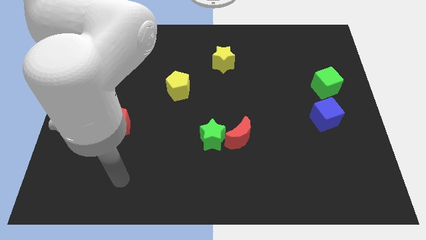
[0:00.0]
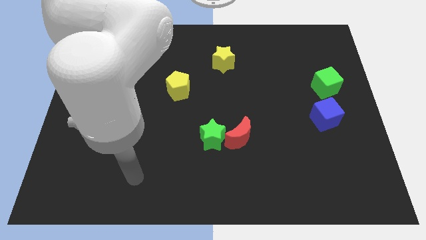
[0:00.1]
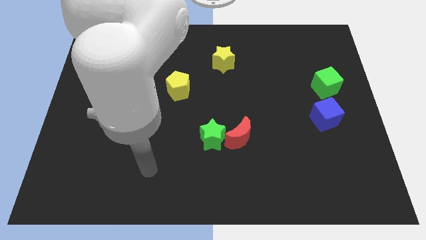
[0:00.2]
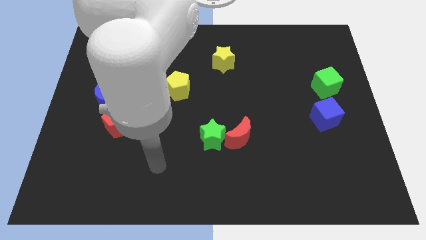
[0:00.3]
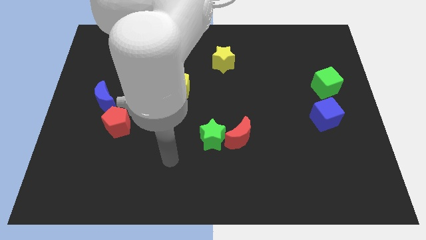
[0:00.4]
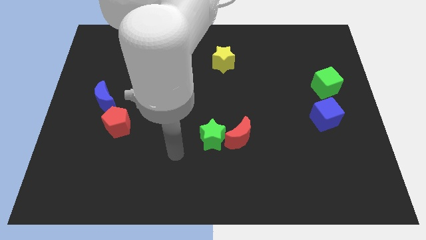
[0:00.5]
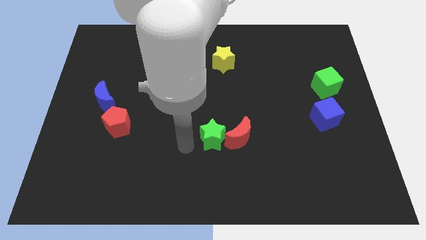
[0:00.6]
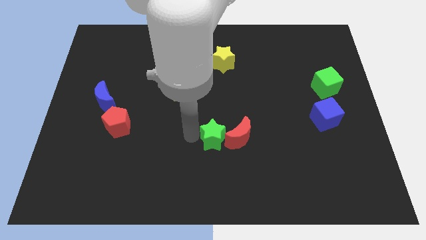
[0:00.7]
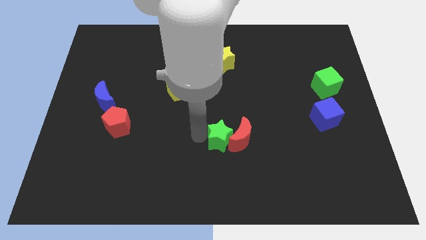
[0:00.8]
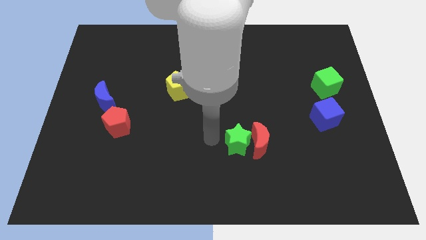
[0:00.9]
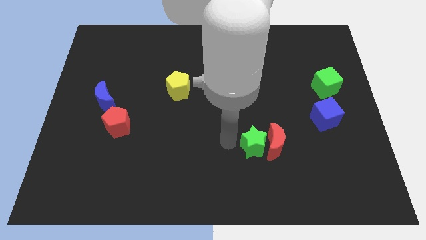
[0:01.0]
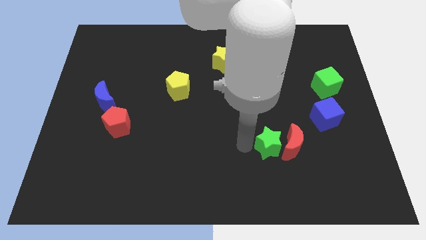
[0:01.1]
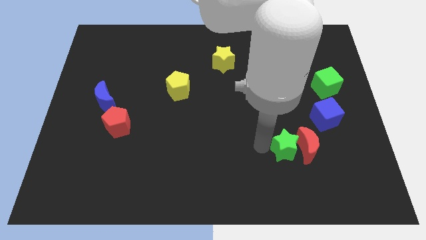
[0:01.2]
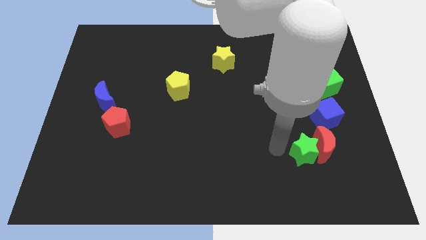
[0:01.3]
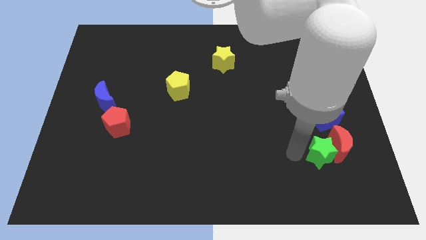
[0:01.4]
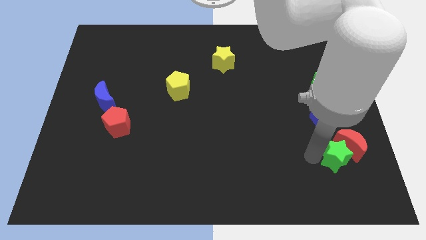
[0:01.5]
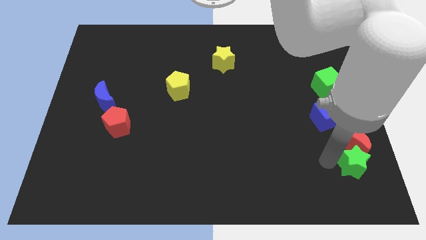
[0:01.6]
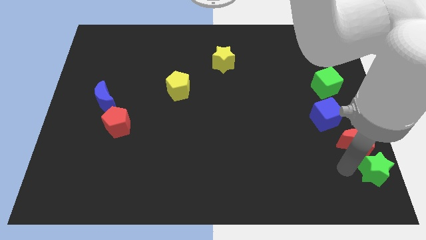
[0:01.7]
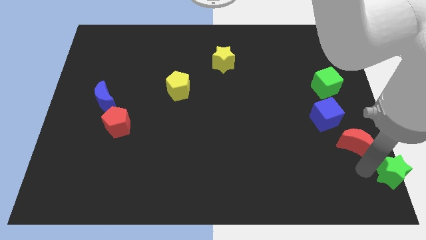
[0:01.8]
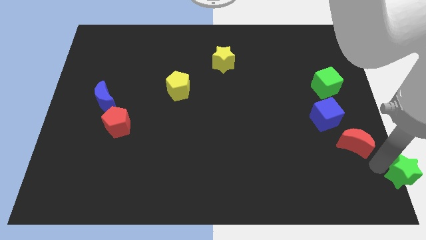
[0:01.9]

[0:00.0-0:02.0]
separate the red moon from the green star

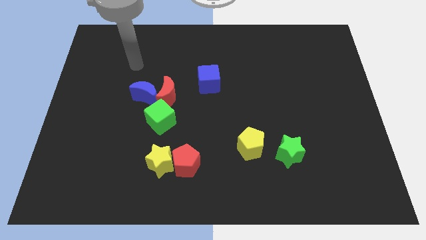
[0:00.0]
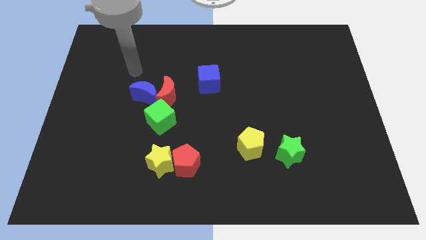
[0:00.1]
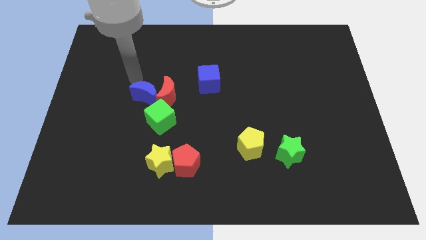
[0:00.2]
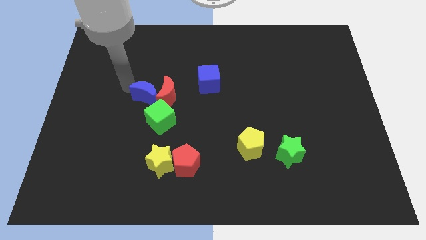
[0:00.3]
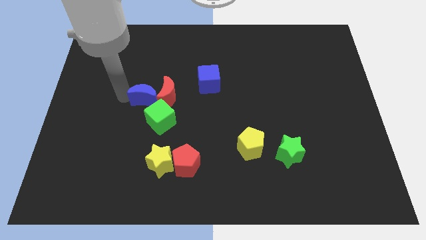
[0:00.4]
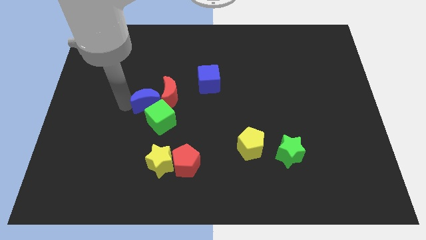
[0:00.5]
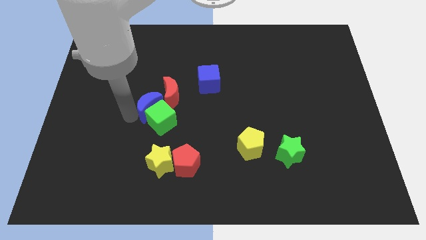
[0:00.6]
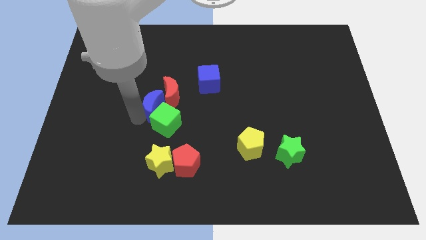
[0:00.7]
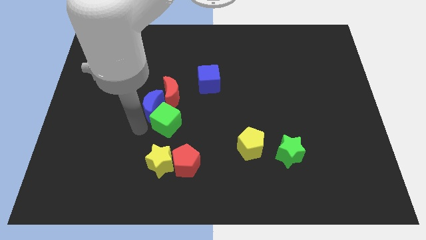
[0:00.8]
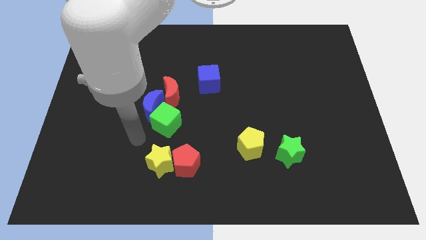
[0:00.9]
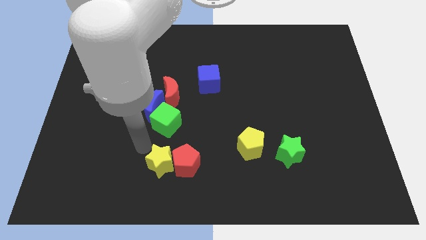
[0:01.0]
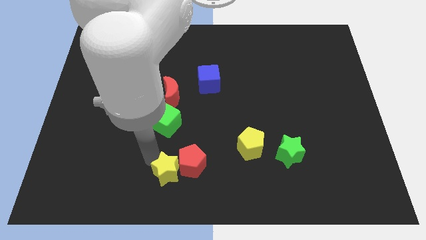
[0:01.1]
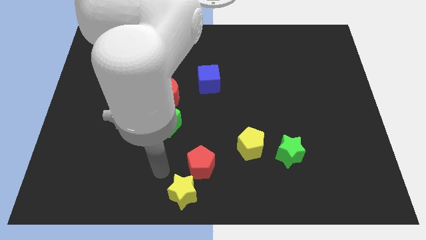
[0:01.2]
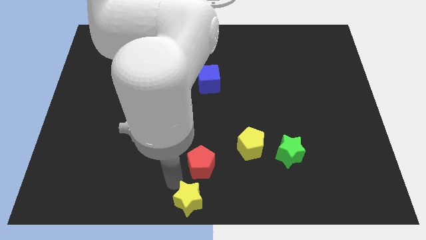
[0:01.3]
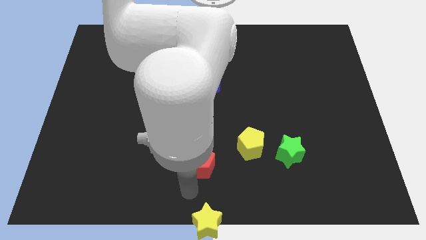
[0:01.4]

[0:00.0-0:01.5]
move the red pentagon away from the yellow star

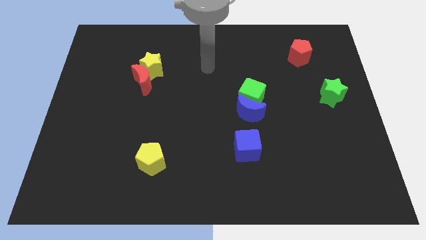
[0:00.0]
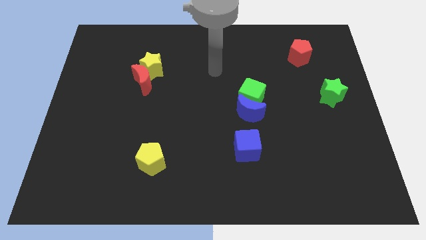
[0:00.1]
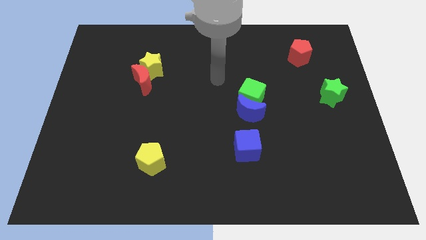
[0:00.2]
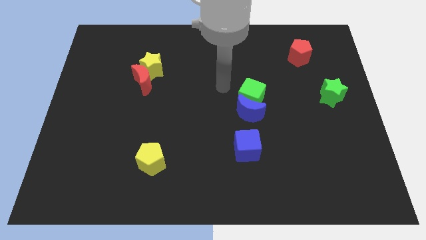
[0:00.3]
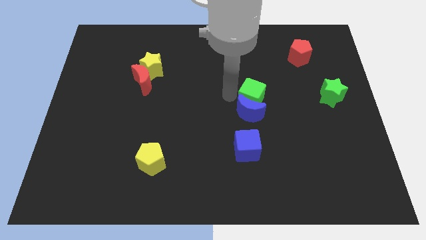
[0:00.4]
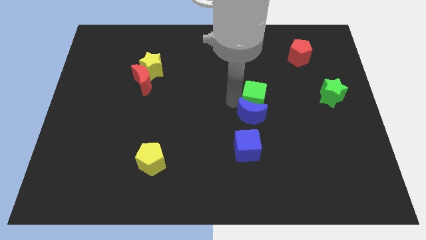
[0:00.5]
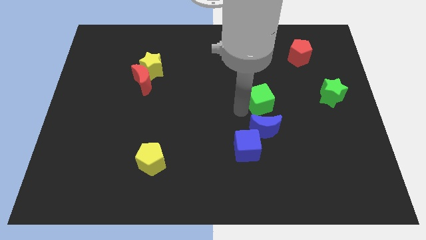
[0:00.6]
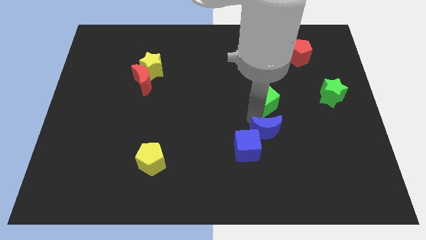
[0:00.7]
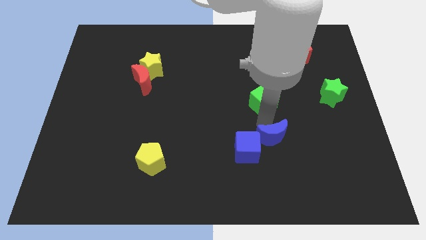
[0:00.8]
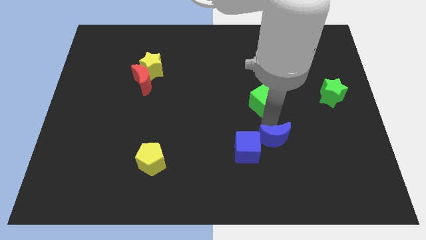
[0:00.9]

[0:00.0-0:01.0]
pull the green cube apart from the blue moon

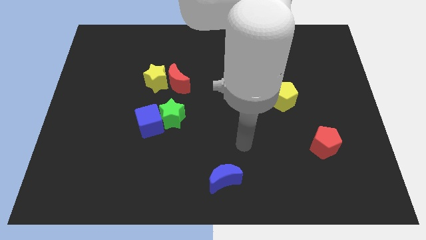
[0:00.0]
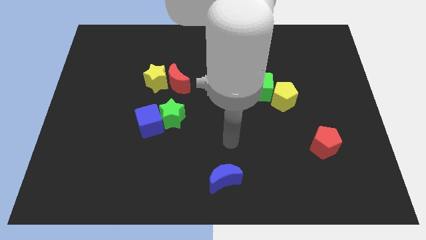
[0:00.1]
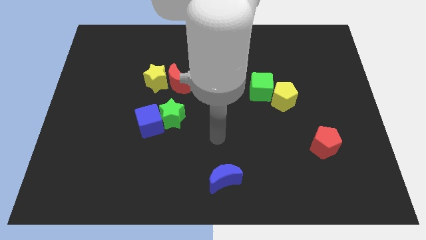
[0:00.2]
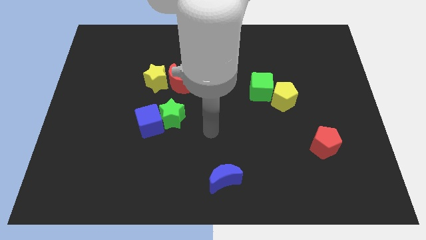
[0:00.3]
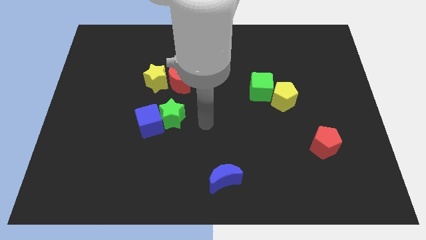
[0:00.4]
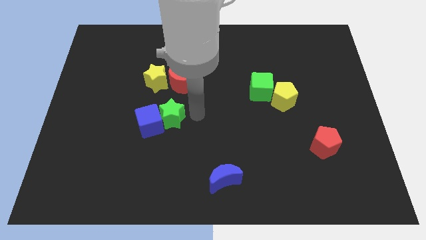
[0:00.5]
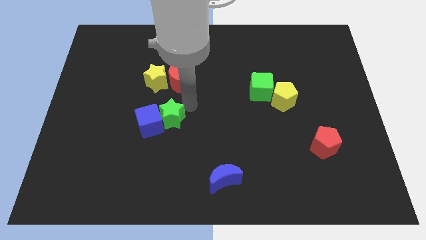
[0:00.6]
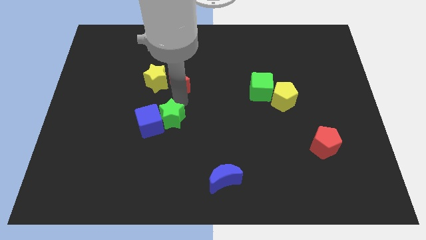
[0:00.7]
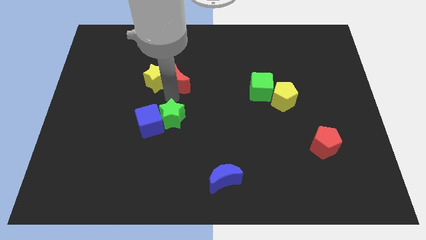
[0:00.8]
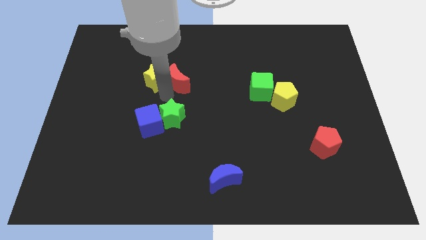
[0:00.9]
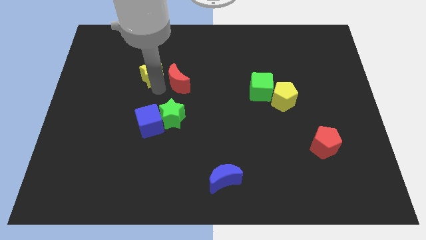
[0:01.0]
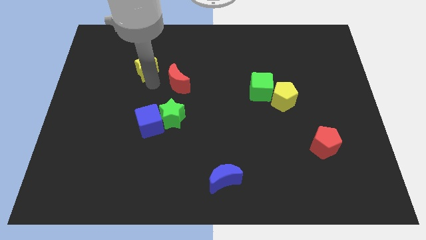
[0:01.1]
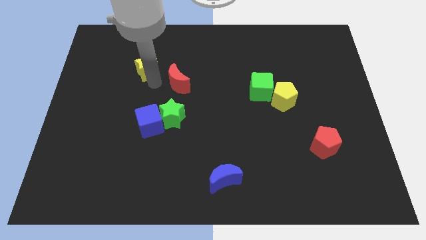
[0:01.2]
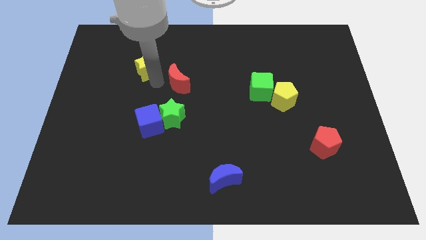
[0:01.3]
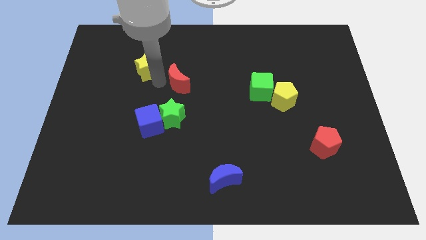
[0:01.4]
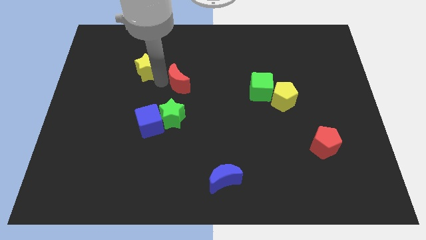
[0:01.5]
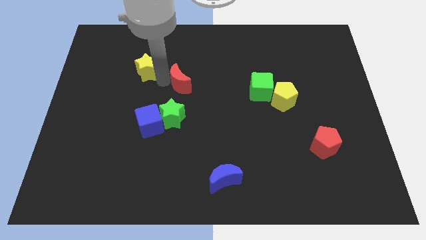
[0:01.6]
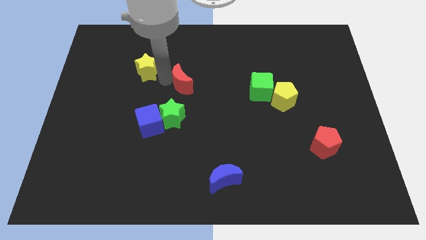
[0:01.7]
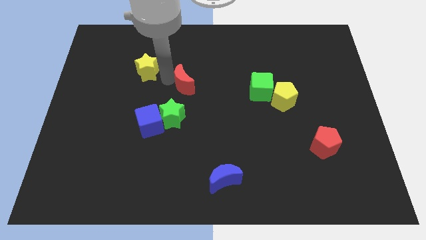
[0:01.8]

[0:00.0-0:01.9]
move the red moon away from the yellow star

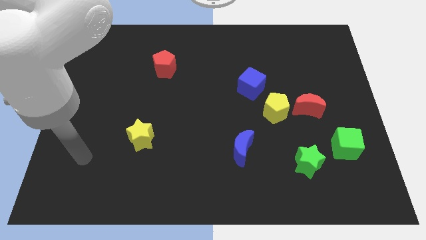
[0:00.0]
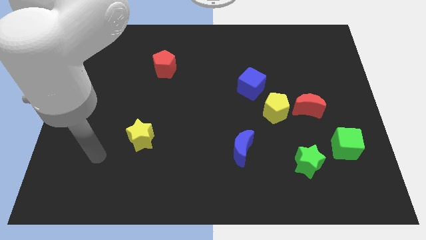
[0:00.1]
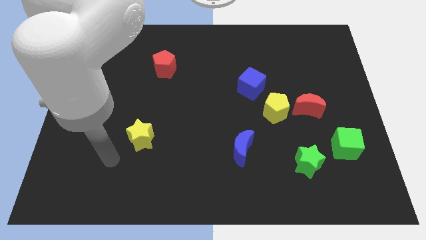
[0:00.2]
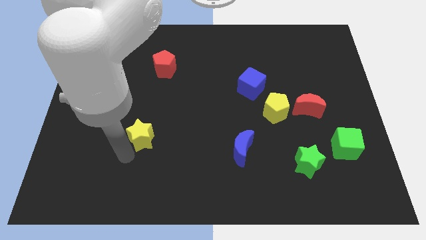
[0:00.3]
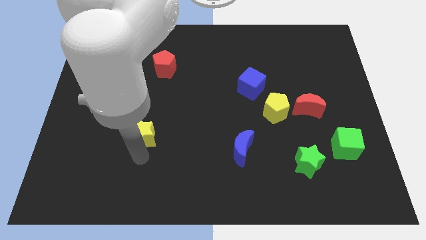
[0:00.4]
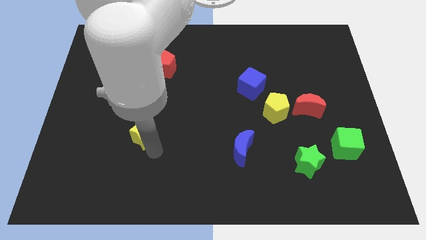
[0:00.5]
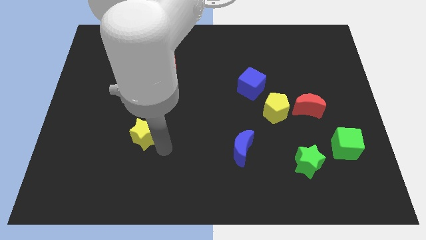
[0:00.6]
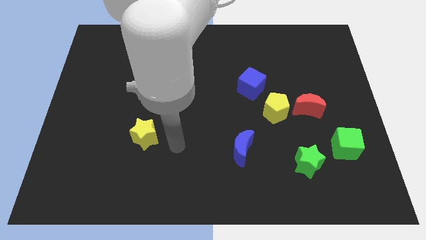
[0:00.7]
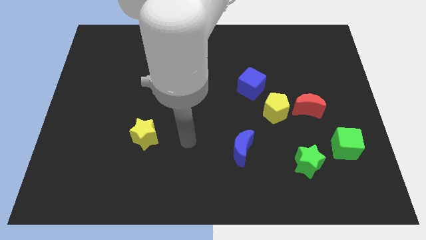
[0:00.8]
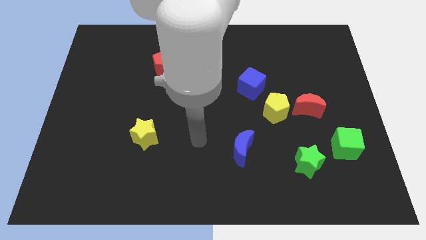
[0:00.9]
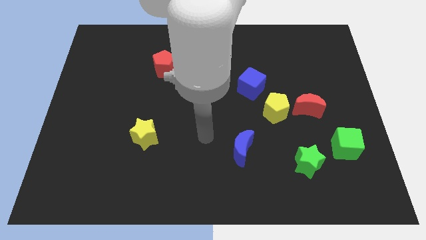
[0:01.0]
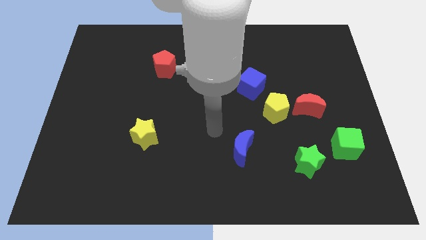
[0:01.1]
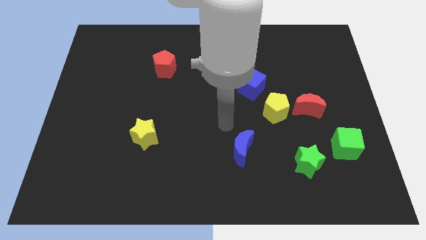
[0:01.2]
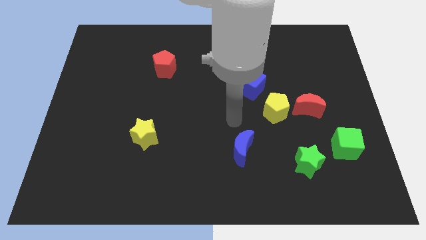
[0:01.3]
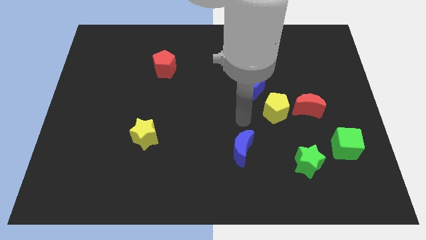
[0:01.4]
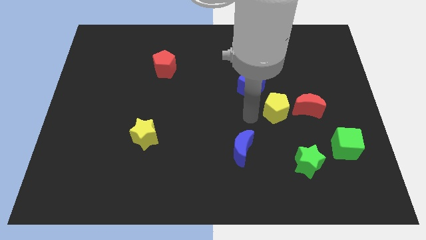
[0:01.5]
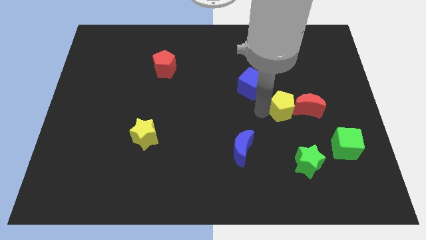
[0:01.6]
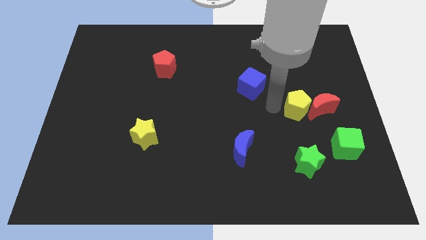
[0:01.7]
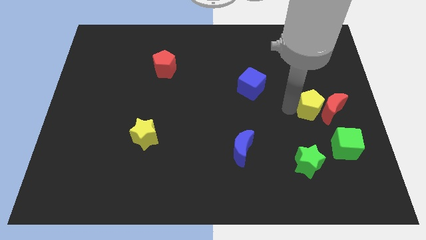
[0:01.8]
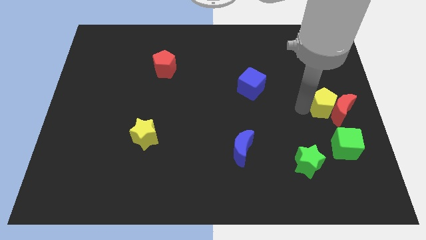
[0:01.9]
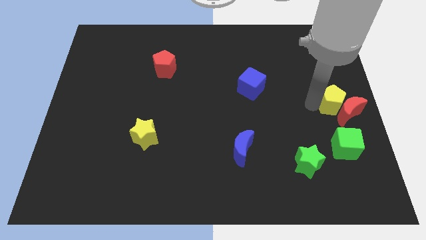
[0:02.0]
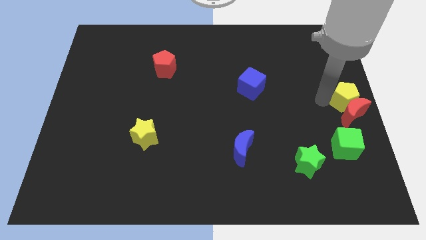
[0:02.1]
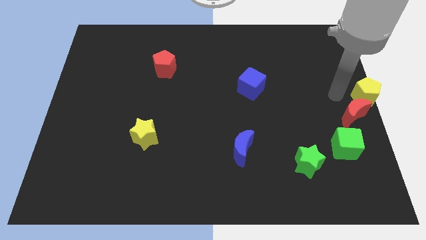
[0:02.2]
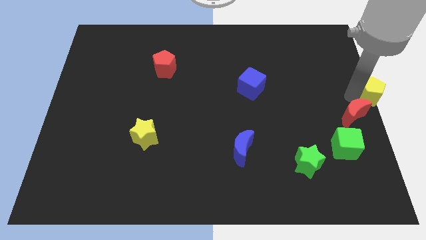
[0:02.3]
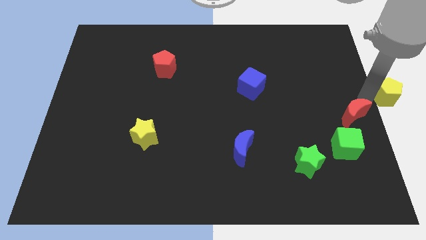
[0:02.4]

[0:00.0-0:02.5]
pull the red moon apart from the yellow pentagon

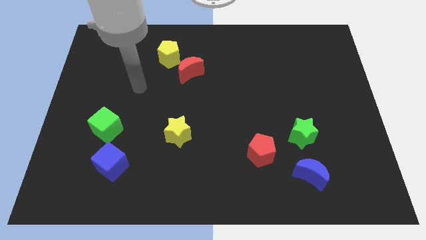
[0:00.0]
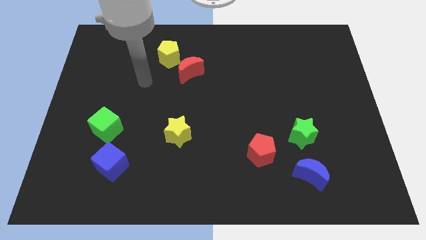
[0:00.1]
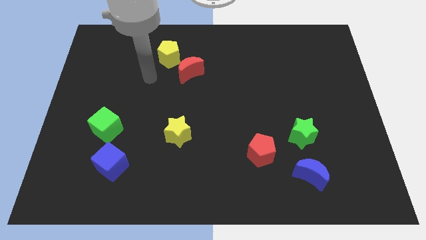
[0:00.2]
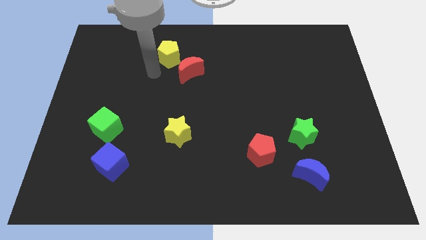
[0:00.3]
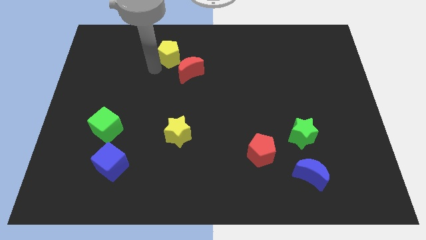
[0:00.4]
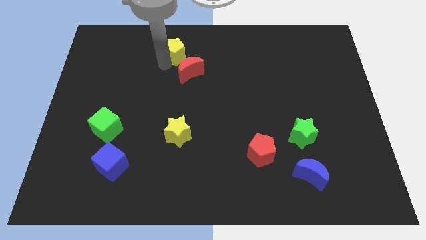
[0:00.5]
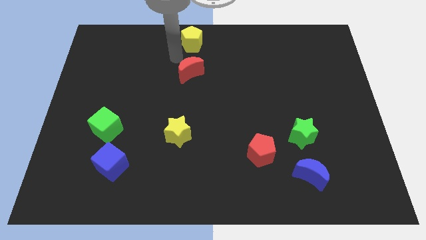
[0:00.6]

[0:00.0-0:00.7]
move the red moon away from the yellow pentagon
